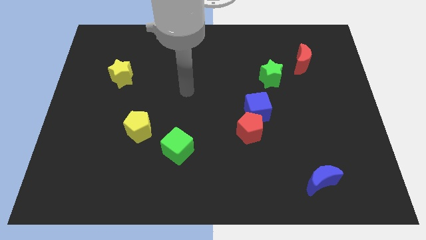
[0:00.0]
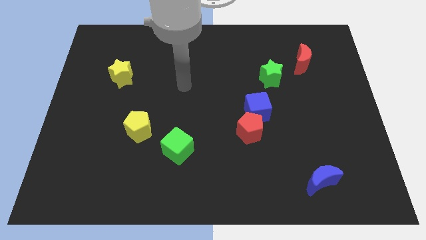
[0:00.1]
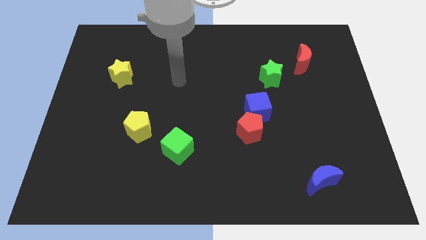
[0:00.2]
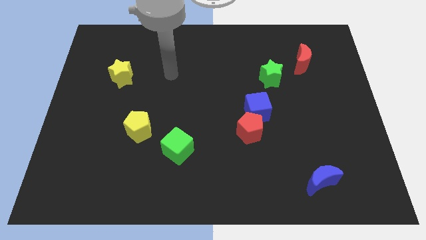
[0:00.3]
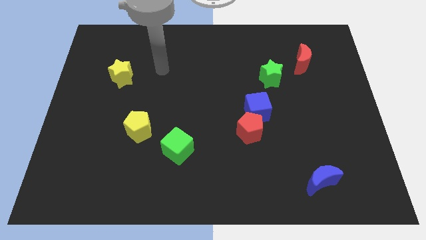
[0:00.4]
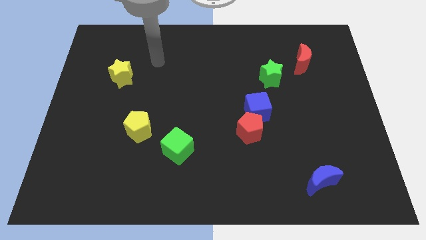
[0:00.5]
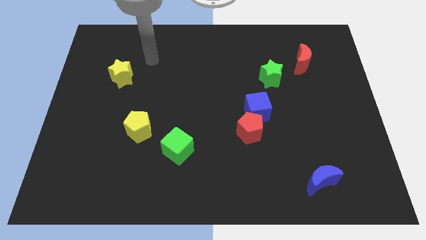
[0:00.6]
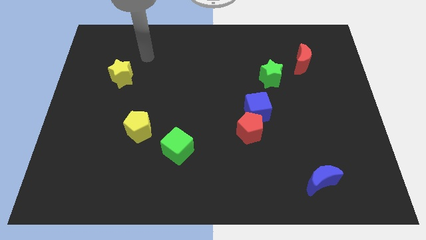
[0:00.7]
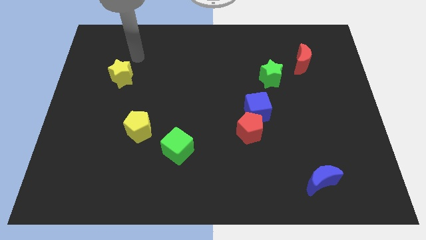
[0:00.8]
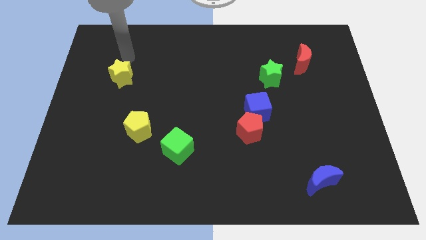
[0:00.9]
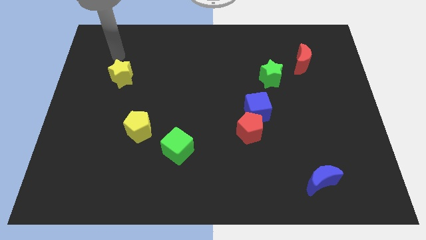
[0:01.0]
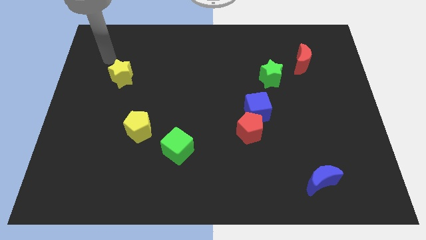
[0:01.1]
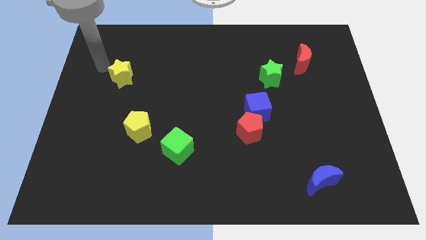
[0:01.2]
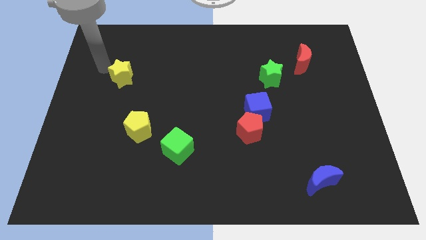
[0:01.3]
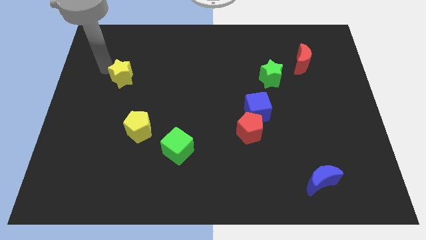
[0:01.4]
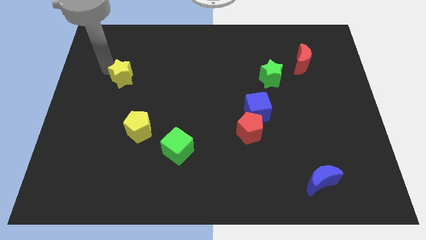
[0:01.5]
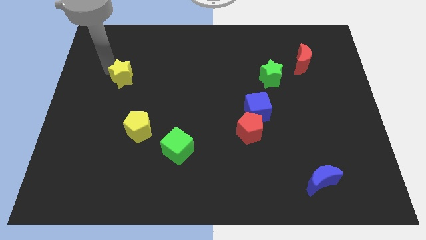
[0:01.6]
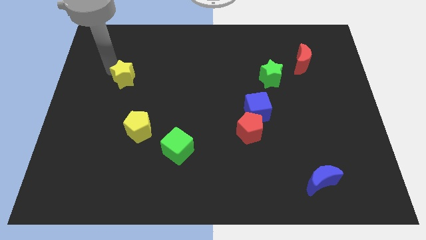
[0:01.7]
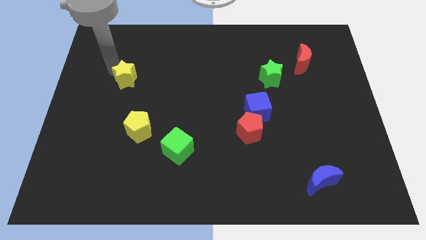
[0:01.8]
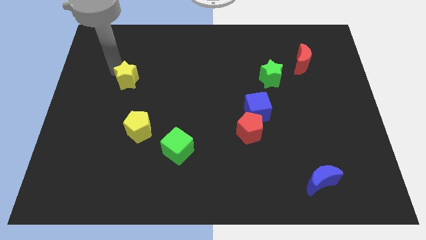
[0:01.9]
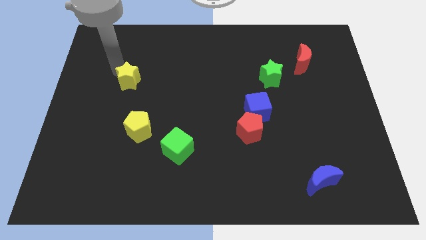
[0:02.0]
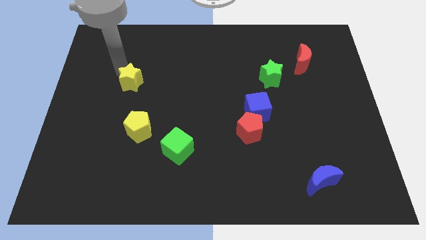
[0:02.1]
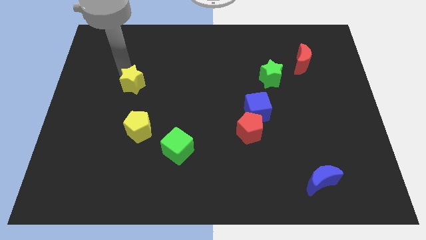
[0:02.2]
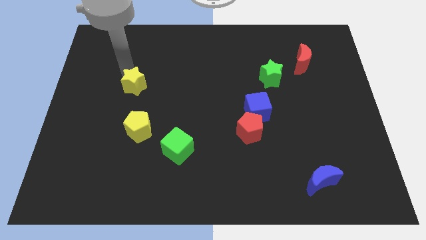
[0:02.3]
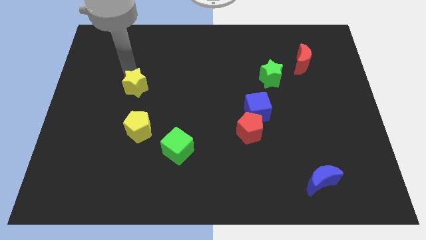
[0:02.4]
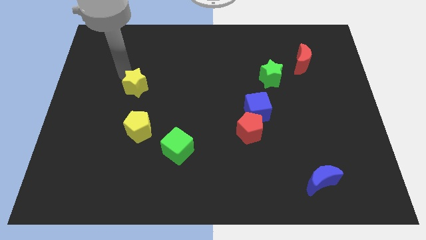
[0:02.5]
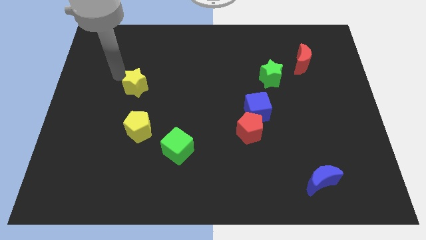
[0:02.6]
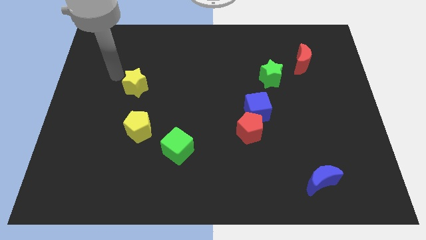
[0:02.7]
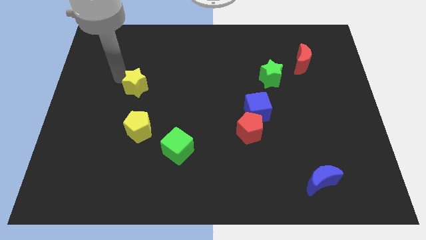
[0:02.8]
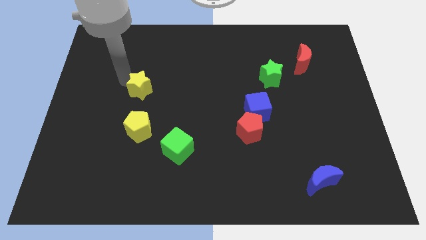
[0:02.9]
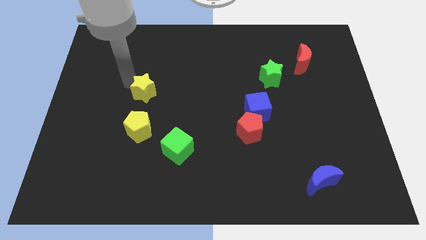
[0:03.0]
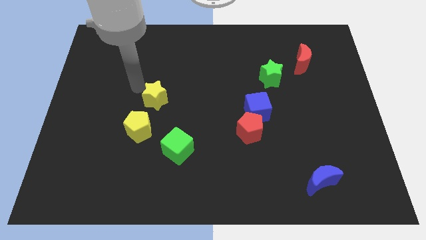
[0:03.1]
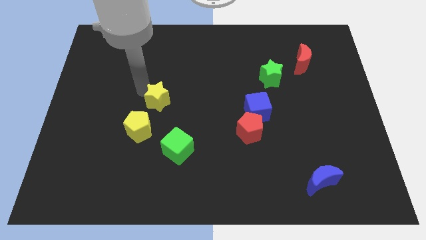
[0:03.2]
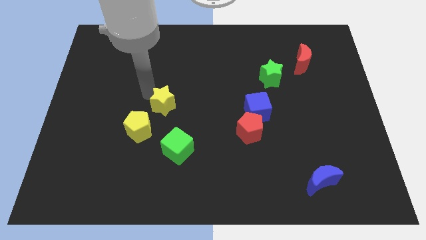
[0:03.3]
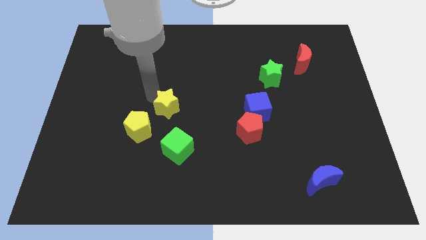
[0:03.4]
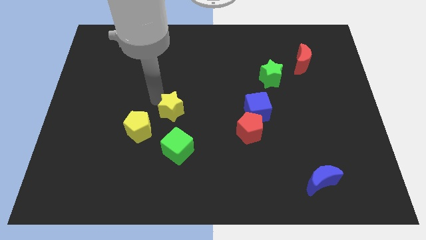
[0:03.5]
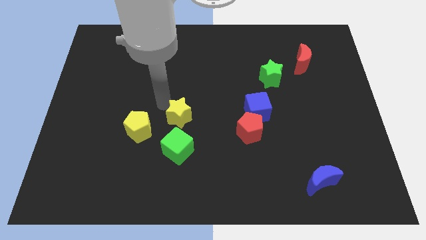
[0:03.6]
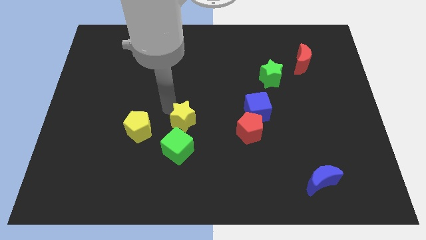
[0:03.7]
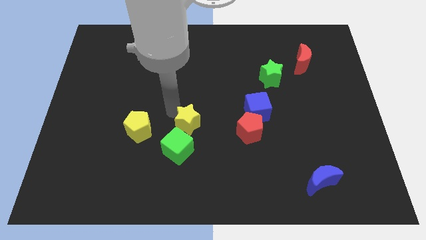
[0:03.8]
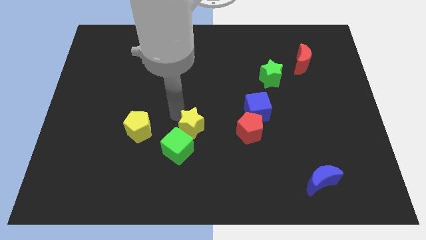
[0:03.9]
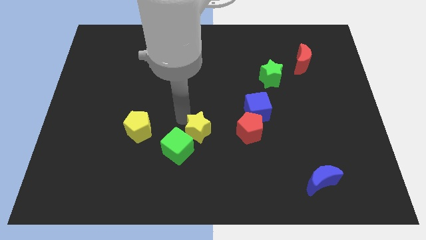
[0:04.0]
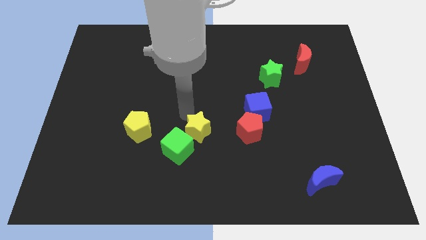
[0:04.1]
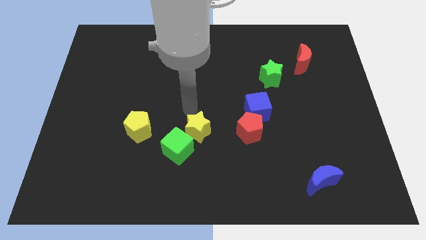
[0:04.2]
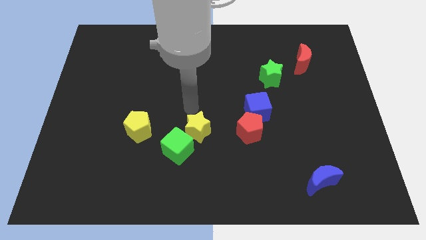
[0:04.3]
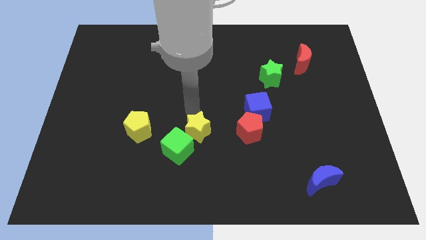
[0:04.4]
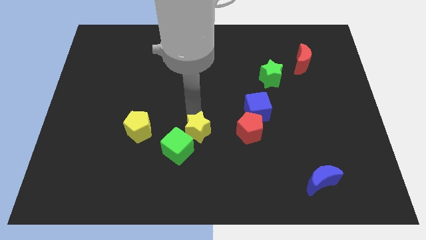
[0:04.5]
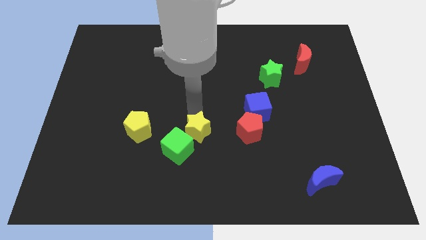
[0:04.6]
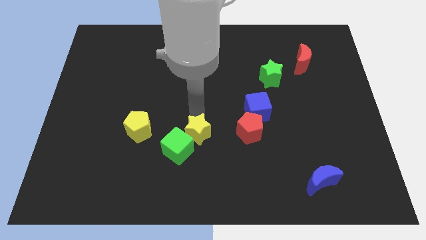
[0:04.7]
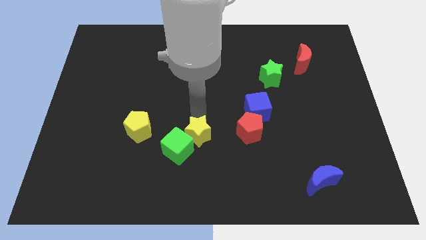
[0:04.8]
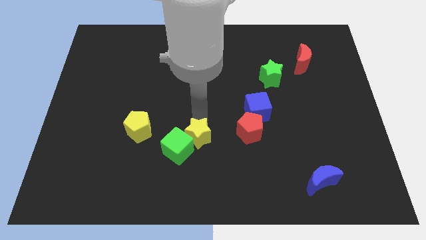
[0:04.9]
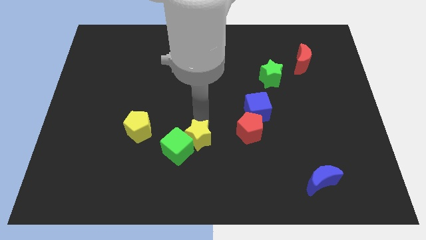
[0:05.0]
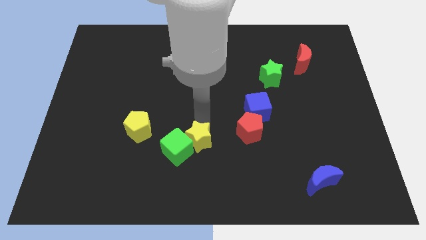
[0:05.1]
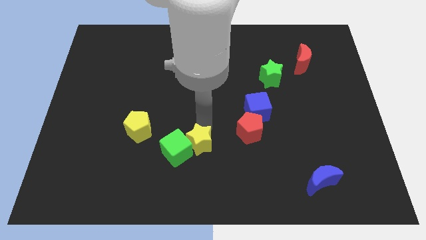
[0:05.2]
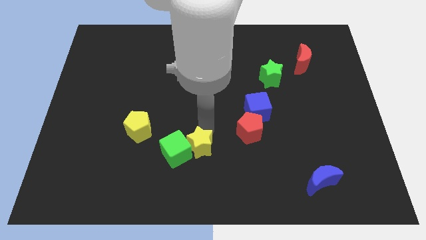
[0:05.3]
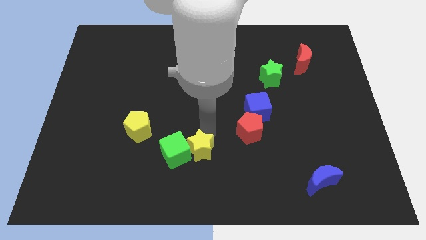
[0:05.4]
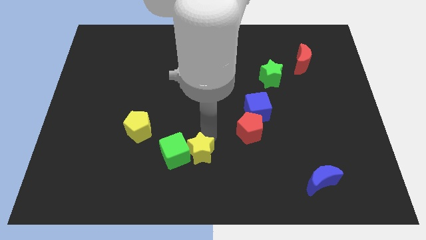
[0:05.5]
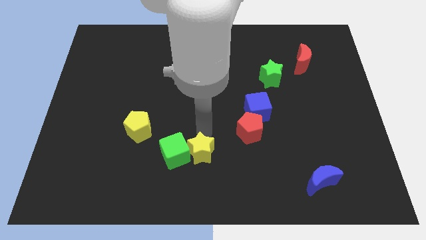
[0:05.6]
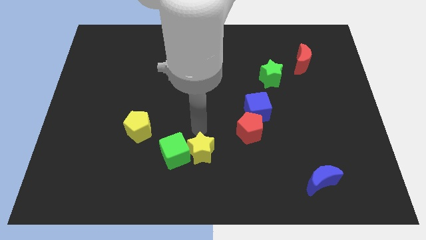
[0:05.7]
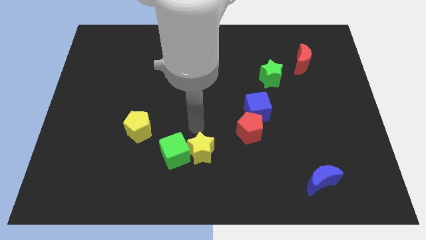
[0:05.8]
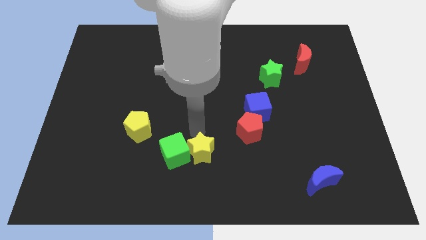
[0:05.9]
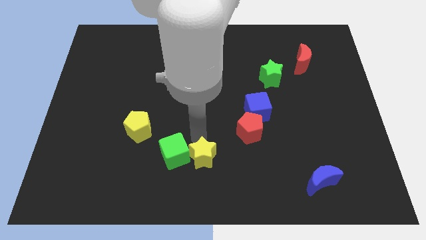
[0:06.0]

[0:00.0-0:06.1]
move the yellow star to the bottom
